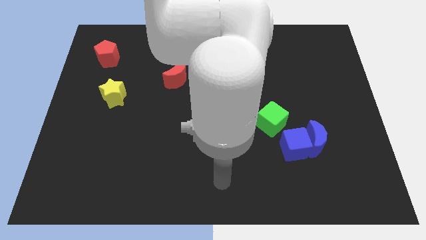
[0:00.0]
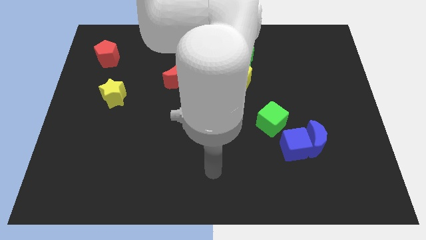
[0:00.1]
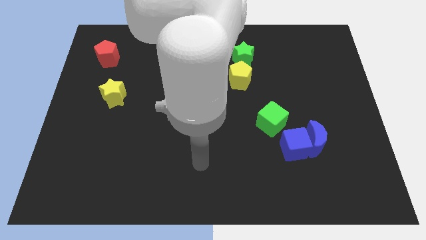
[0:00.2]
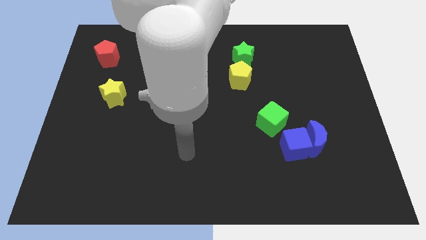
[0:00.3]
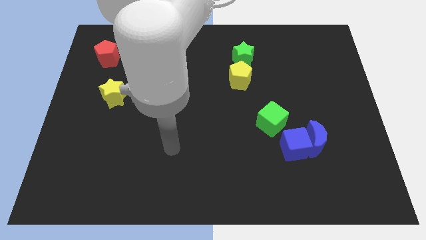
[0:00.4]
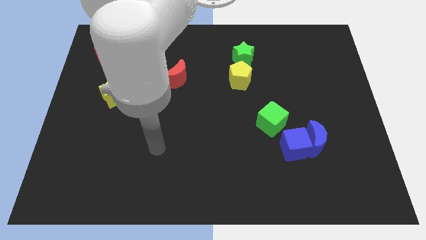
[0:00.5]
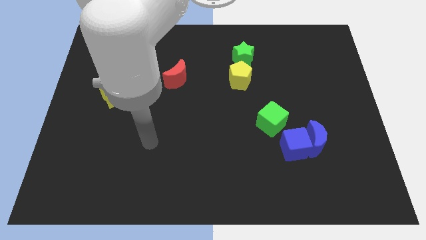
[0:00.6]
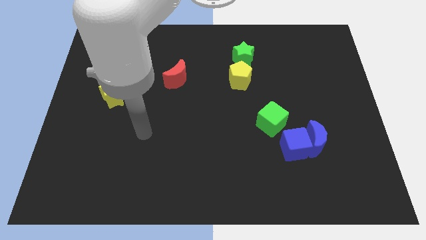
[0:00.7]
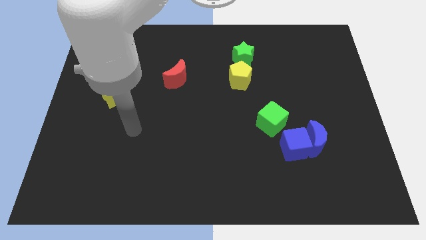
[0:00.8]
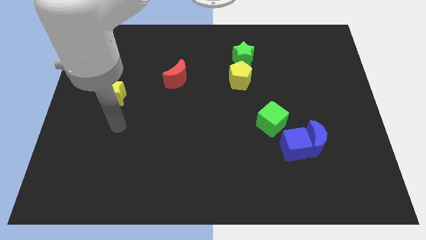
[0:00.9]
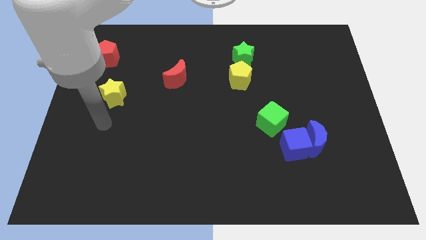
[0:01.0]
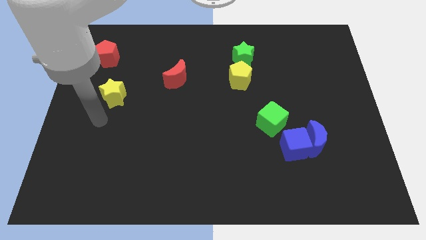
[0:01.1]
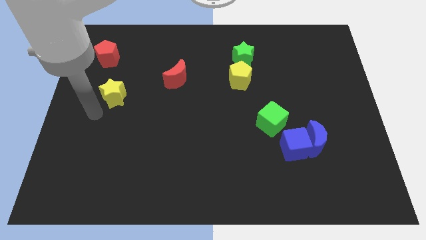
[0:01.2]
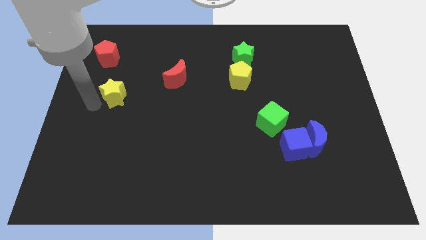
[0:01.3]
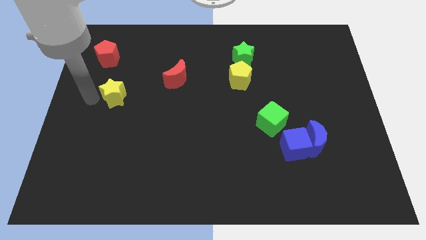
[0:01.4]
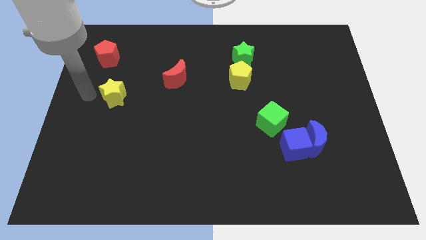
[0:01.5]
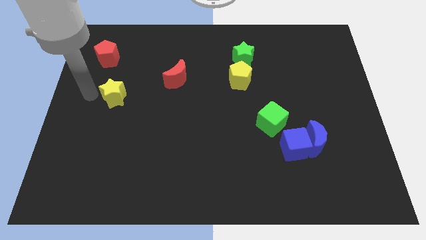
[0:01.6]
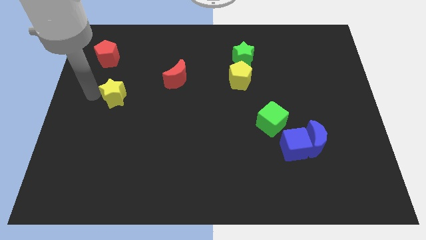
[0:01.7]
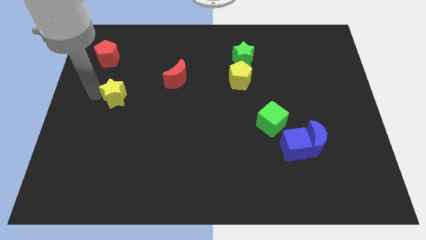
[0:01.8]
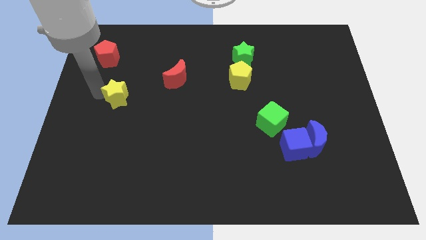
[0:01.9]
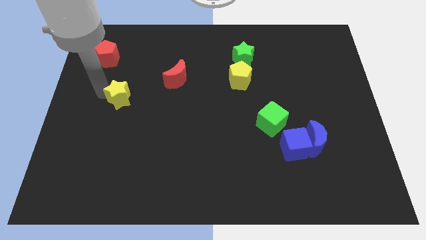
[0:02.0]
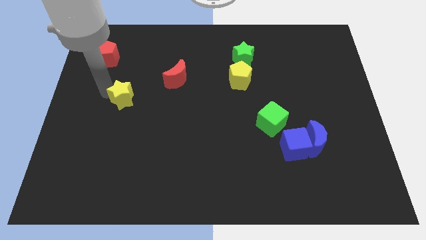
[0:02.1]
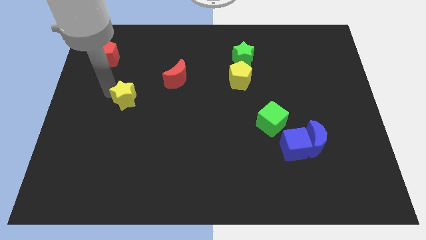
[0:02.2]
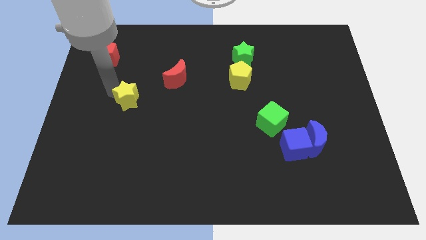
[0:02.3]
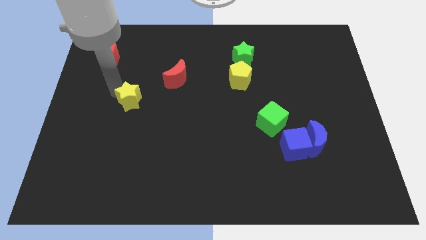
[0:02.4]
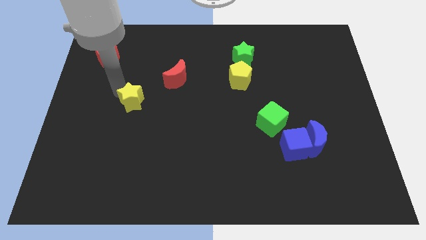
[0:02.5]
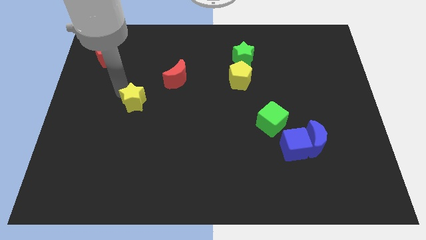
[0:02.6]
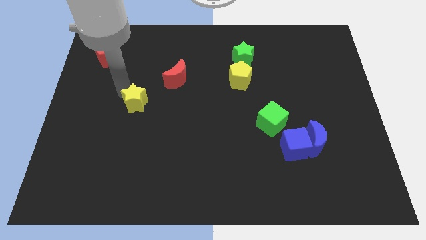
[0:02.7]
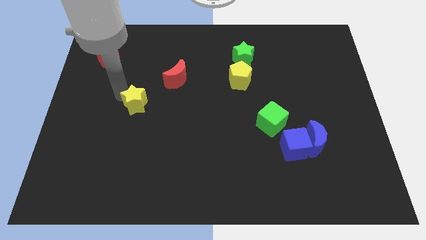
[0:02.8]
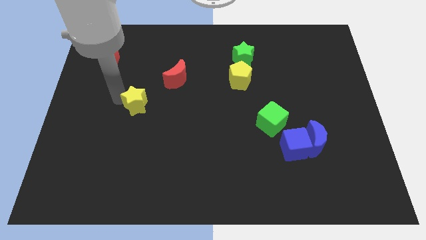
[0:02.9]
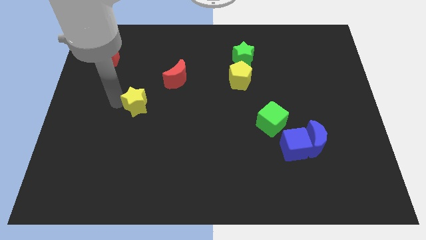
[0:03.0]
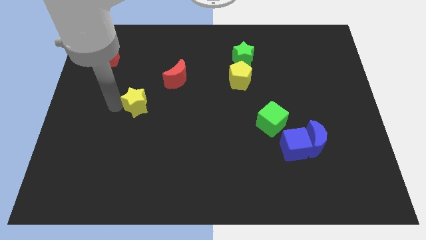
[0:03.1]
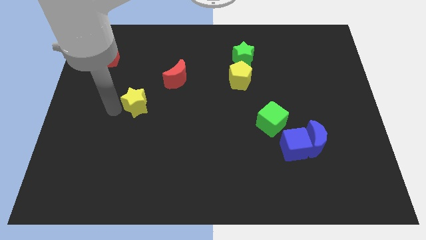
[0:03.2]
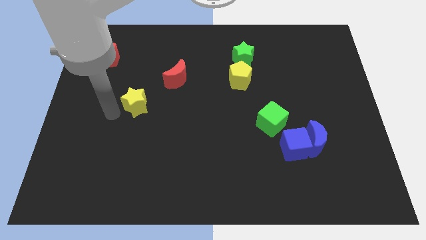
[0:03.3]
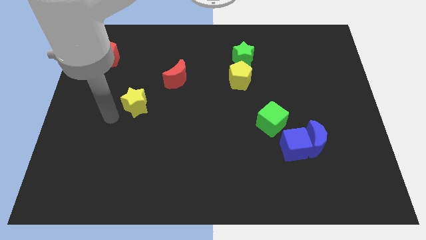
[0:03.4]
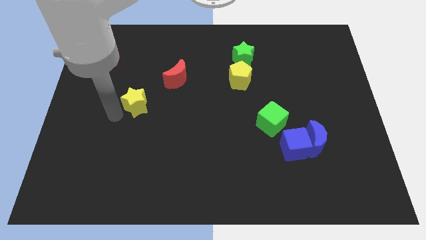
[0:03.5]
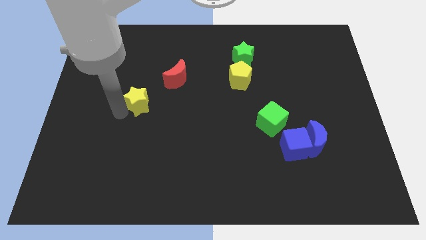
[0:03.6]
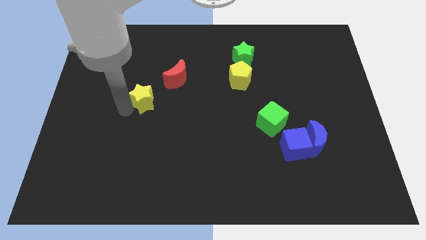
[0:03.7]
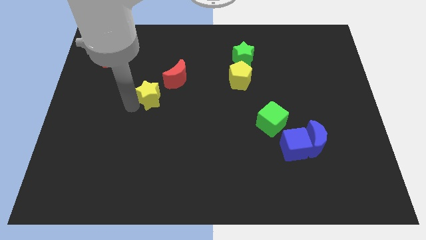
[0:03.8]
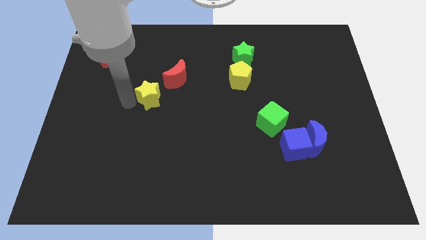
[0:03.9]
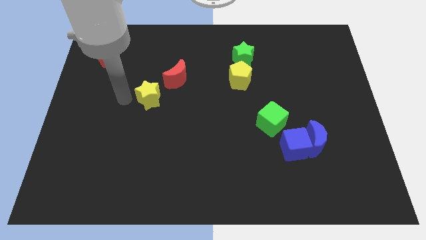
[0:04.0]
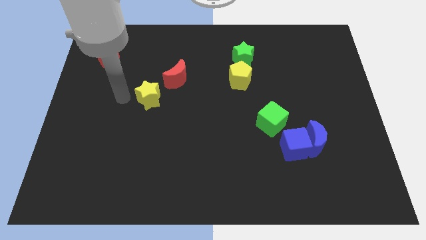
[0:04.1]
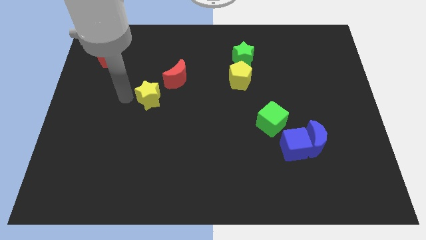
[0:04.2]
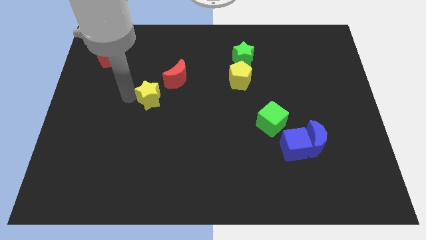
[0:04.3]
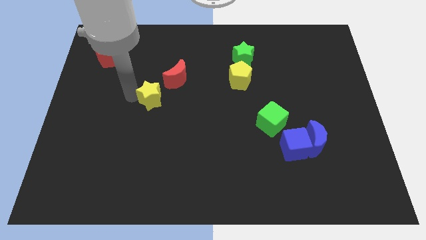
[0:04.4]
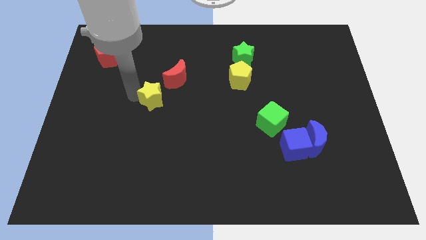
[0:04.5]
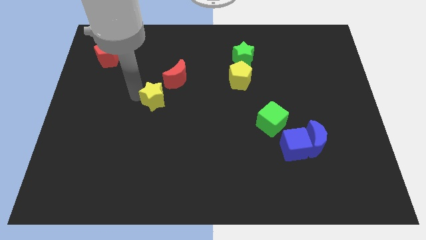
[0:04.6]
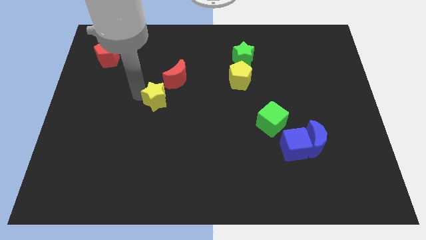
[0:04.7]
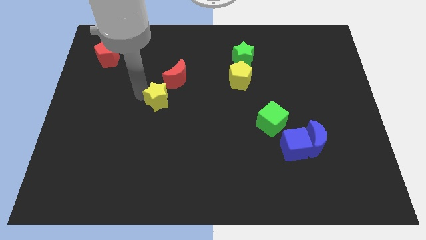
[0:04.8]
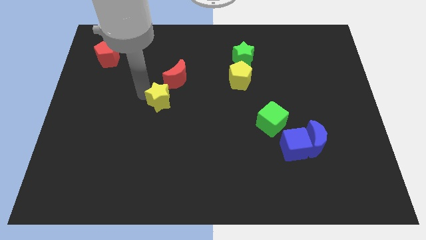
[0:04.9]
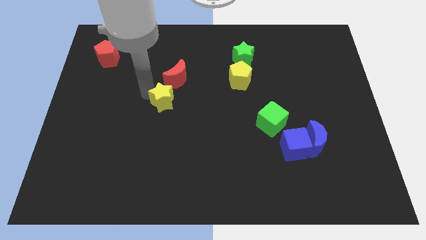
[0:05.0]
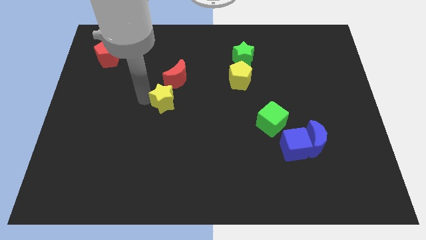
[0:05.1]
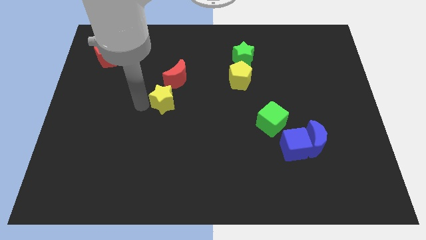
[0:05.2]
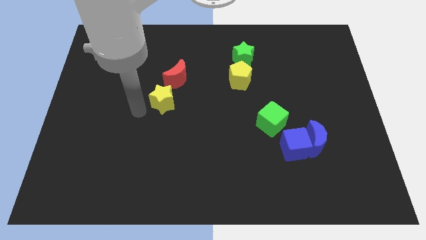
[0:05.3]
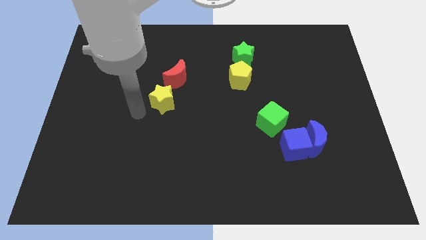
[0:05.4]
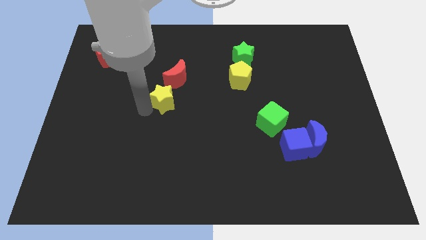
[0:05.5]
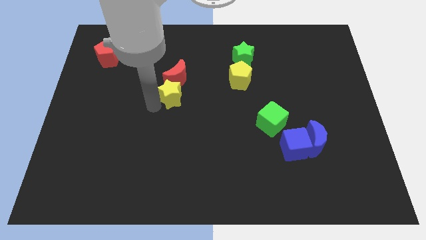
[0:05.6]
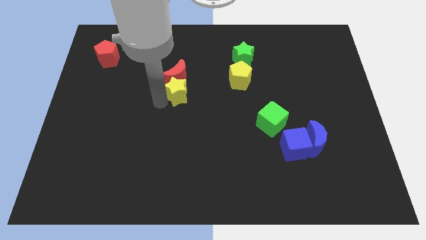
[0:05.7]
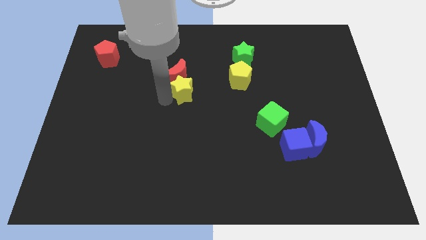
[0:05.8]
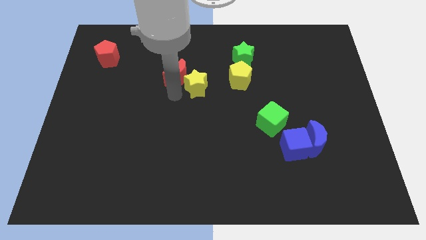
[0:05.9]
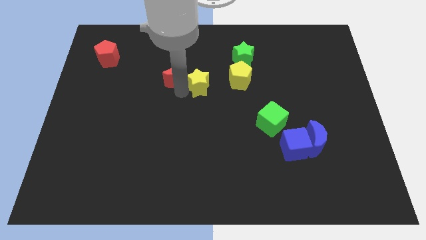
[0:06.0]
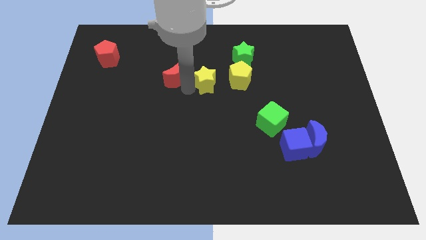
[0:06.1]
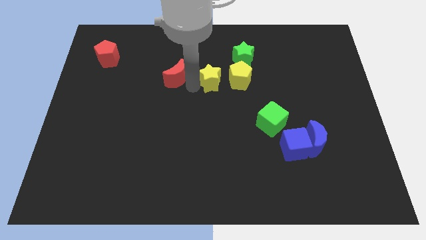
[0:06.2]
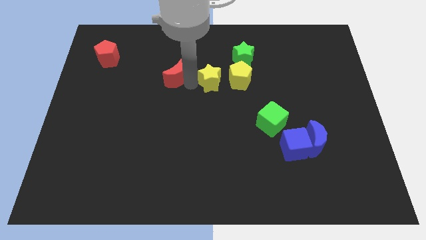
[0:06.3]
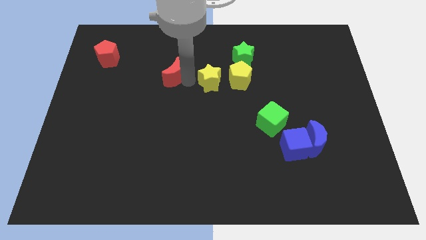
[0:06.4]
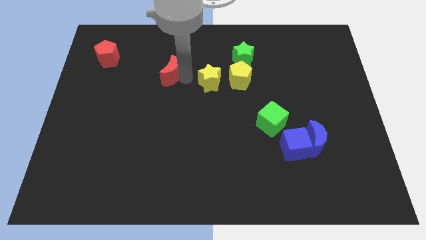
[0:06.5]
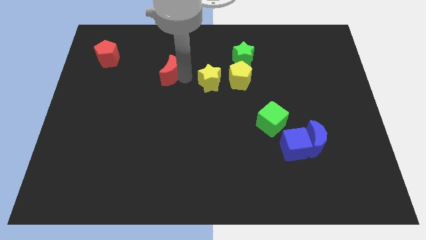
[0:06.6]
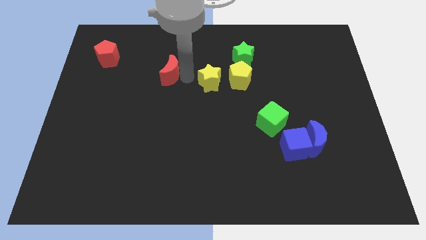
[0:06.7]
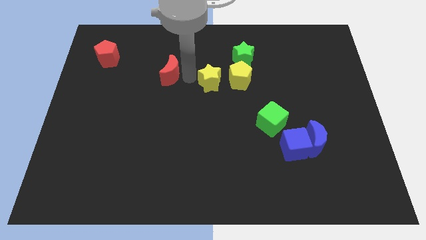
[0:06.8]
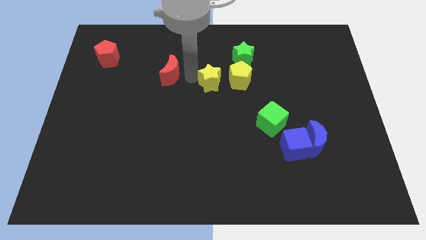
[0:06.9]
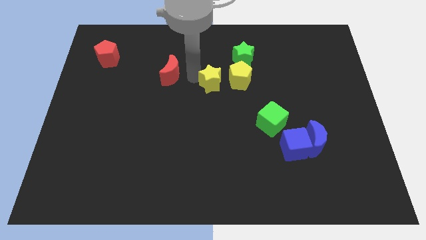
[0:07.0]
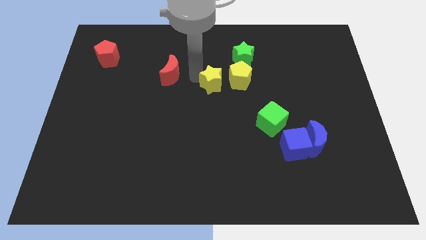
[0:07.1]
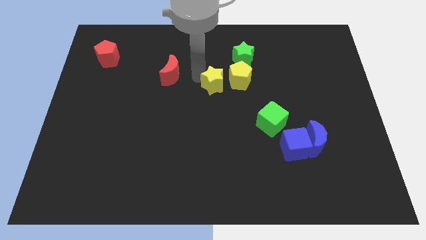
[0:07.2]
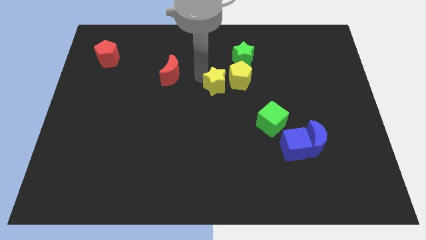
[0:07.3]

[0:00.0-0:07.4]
move the yellow star next to the yellow pentagon

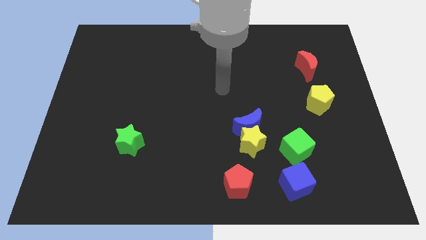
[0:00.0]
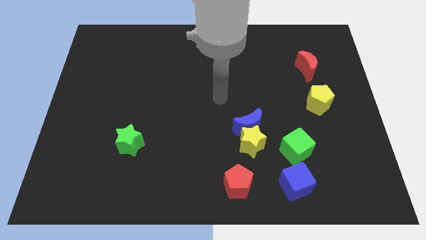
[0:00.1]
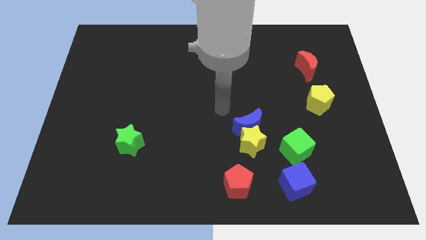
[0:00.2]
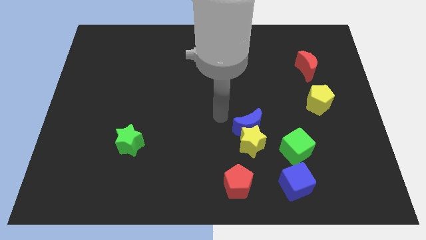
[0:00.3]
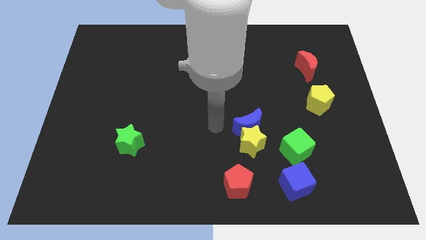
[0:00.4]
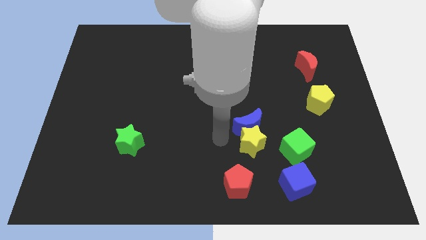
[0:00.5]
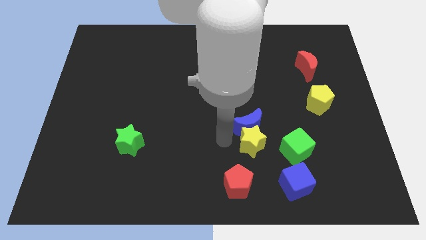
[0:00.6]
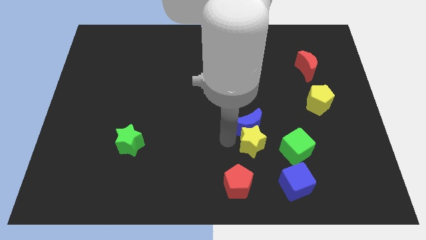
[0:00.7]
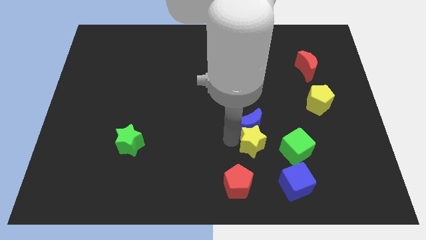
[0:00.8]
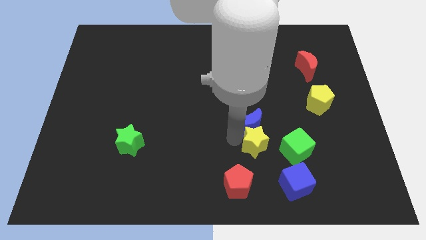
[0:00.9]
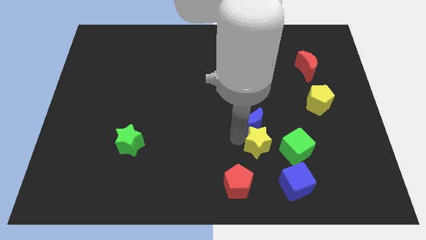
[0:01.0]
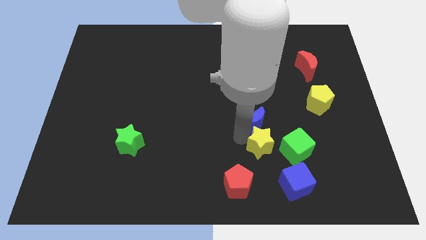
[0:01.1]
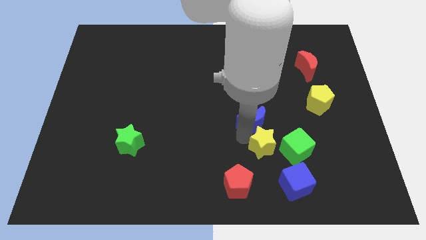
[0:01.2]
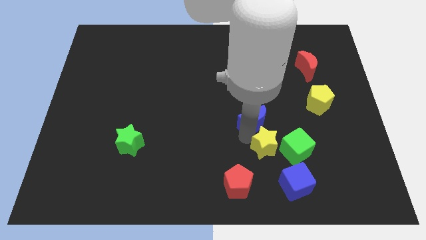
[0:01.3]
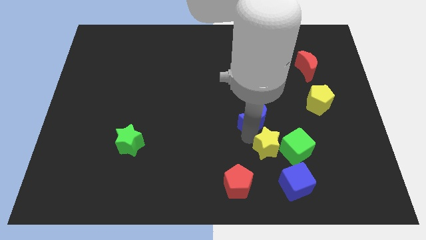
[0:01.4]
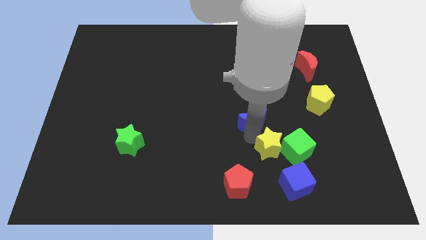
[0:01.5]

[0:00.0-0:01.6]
push the yellow star close to the green cube
